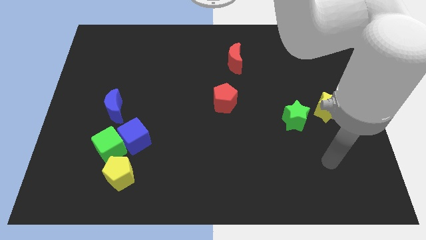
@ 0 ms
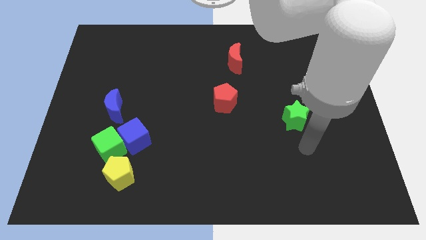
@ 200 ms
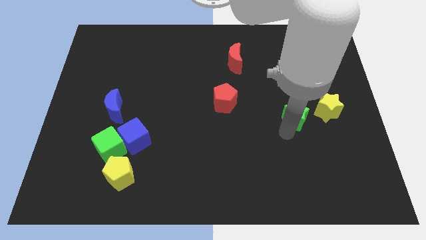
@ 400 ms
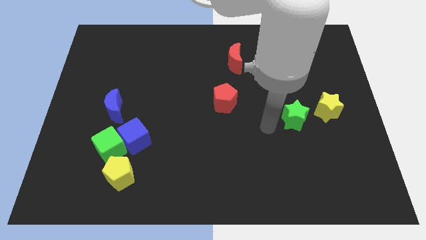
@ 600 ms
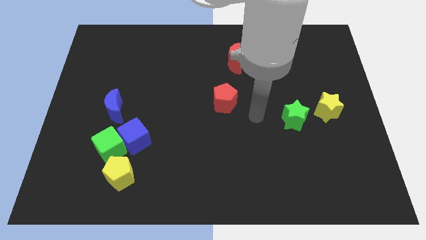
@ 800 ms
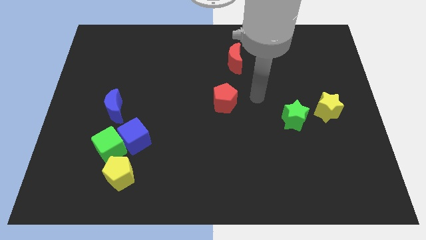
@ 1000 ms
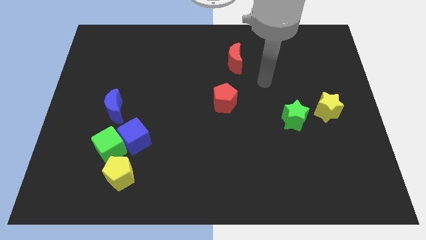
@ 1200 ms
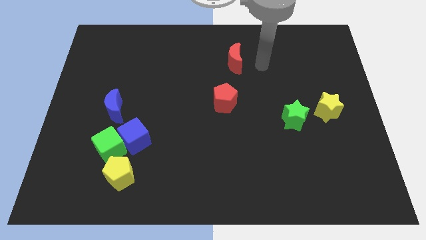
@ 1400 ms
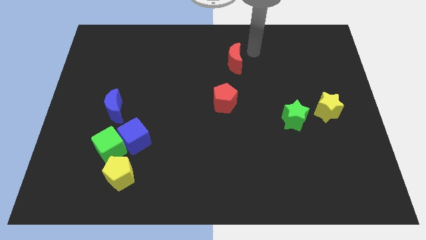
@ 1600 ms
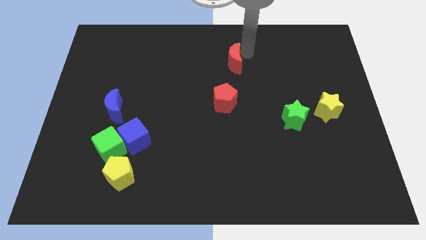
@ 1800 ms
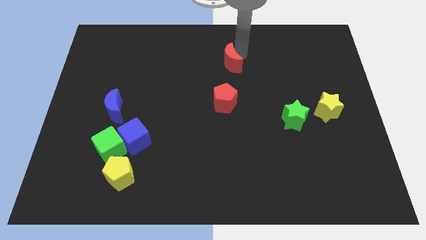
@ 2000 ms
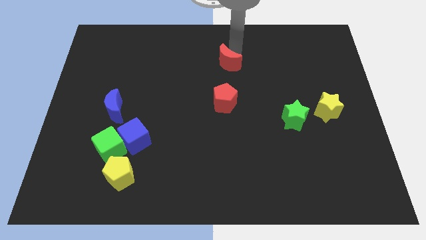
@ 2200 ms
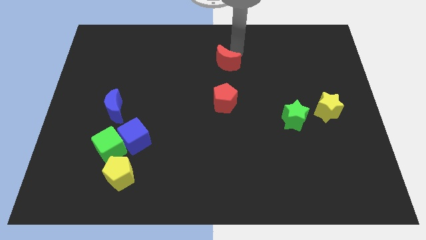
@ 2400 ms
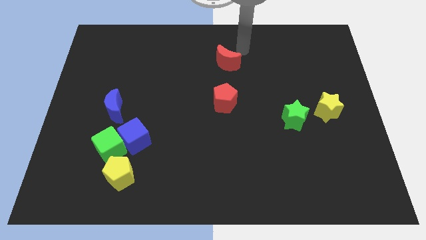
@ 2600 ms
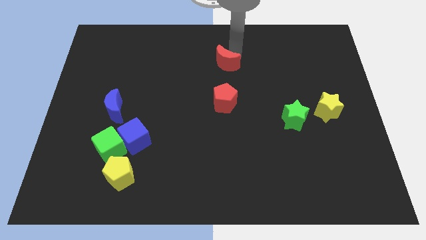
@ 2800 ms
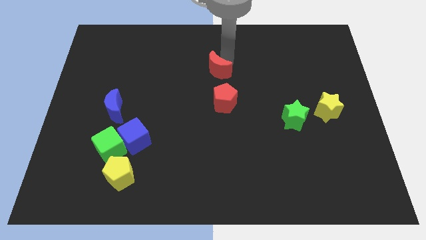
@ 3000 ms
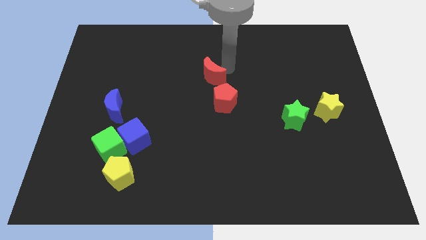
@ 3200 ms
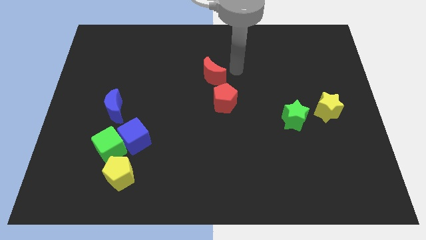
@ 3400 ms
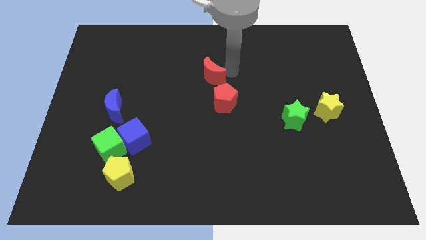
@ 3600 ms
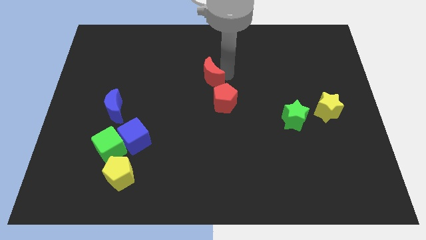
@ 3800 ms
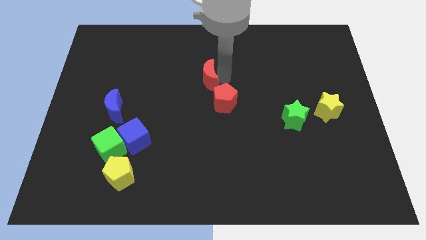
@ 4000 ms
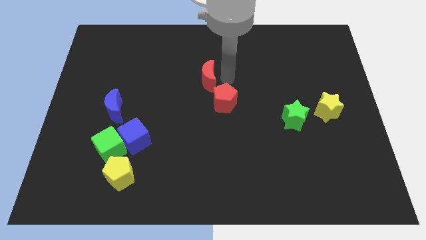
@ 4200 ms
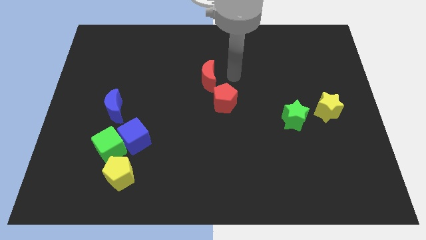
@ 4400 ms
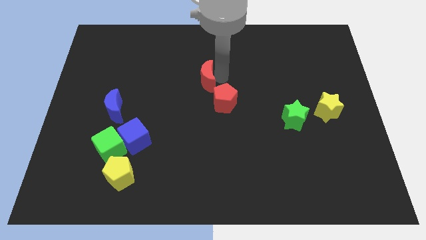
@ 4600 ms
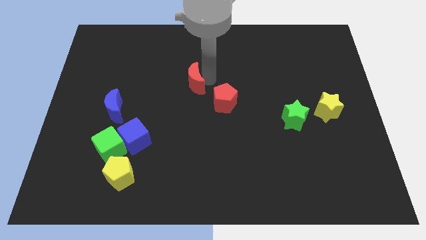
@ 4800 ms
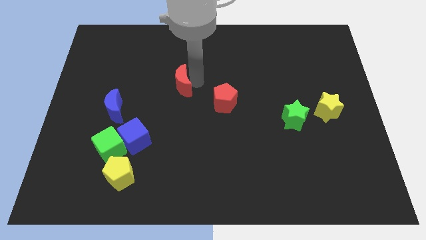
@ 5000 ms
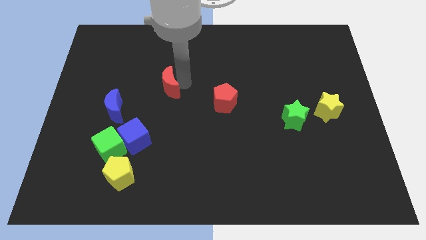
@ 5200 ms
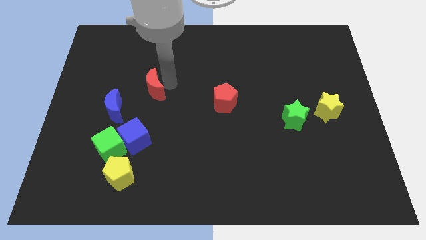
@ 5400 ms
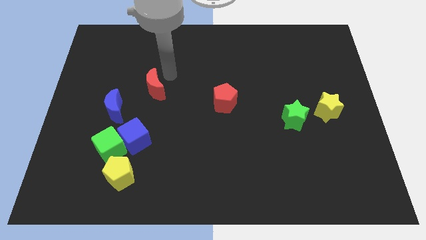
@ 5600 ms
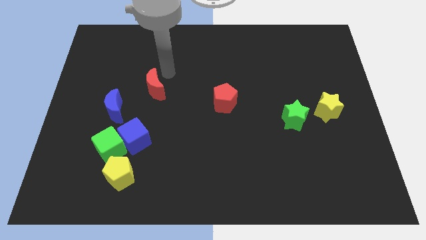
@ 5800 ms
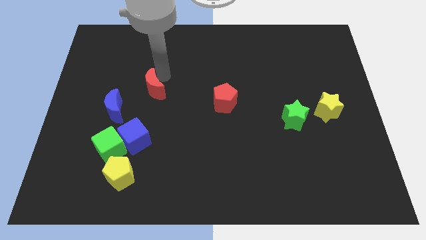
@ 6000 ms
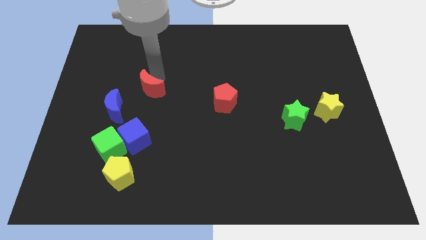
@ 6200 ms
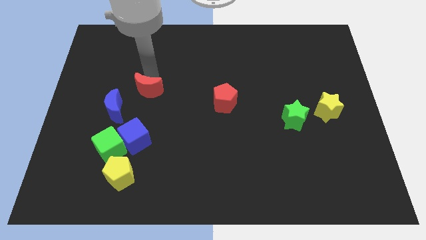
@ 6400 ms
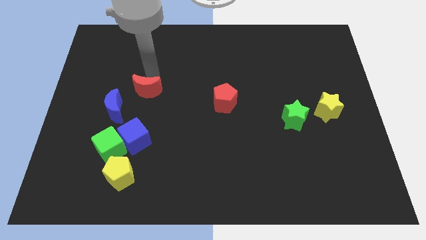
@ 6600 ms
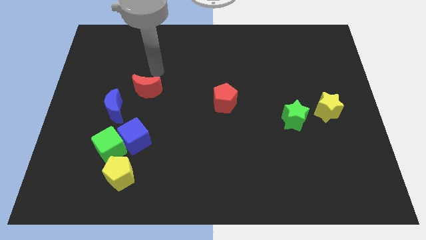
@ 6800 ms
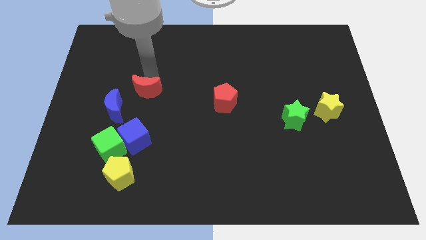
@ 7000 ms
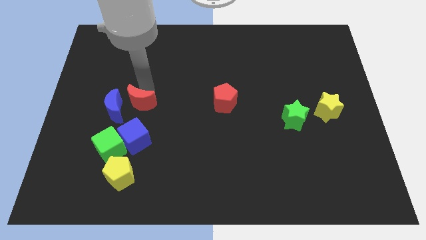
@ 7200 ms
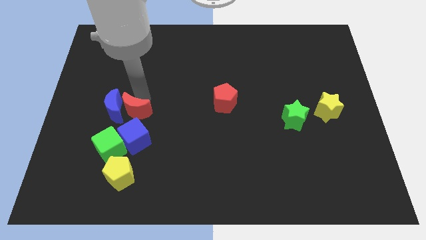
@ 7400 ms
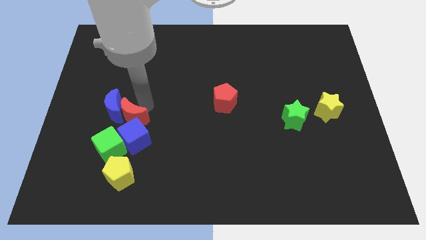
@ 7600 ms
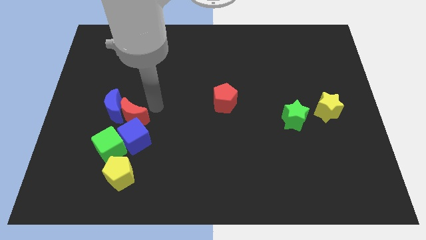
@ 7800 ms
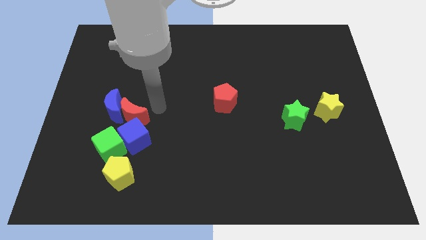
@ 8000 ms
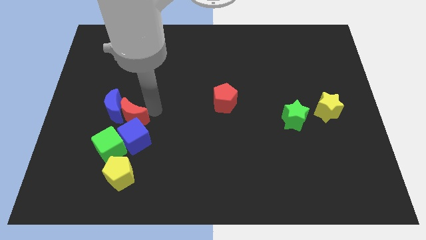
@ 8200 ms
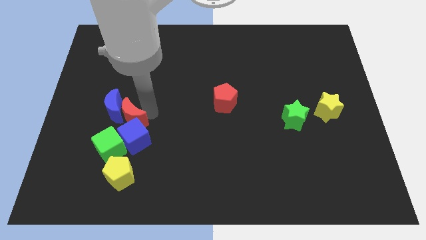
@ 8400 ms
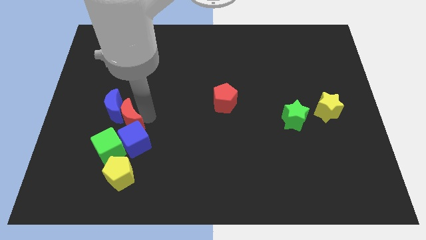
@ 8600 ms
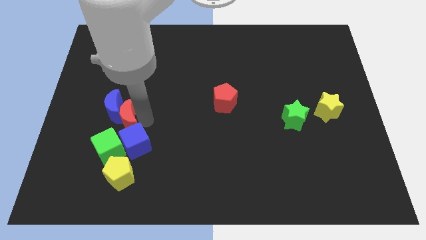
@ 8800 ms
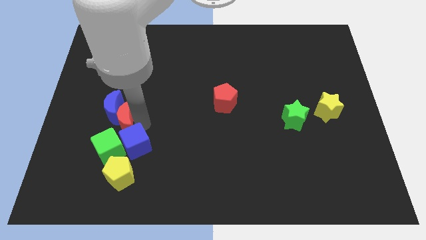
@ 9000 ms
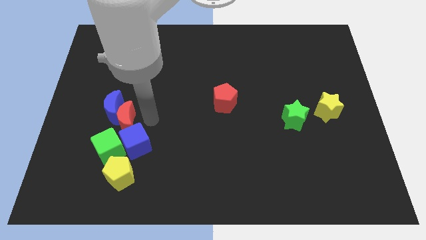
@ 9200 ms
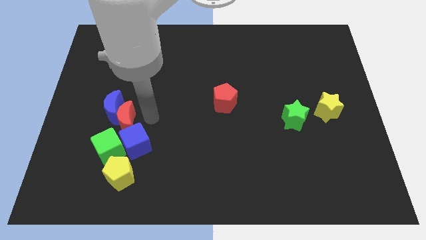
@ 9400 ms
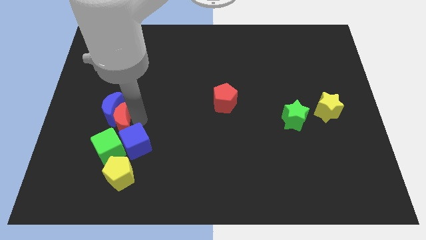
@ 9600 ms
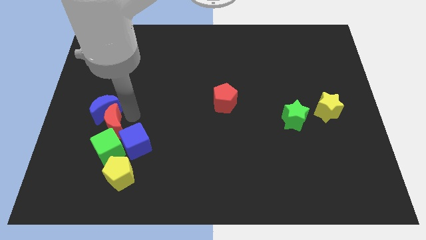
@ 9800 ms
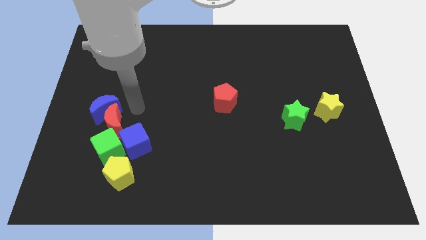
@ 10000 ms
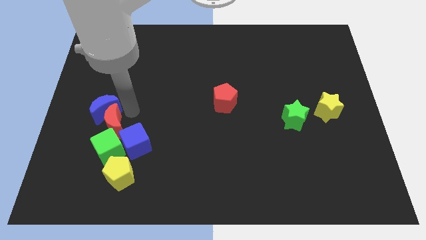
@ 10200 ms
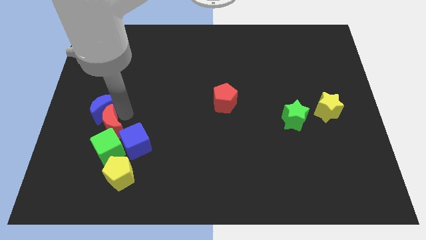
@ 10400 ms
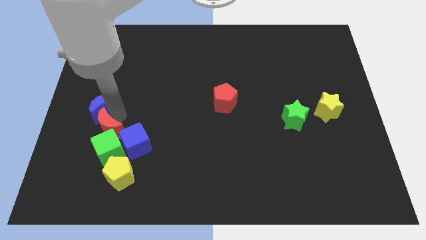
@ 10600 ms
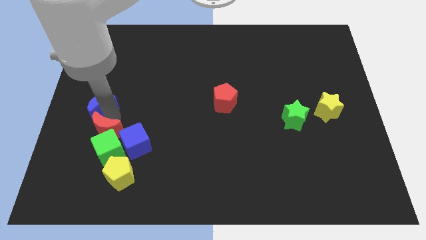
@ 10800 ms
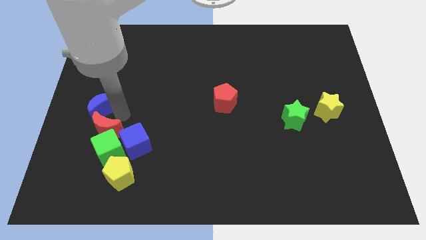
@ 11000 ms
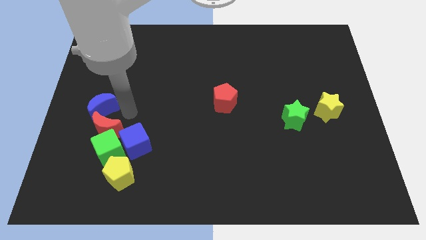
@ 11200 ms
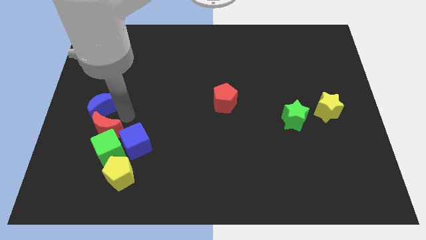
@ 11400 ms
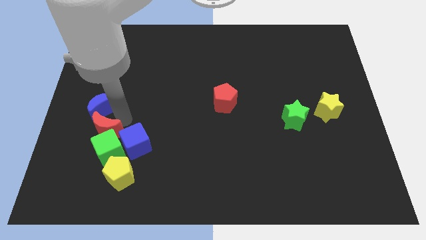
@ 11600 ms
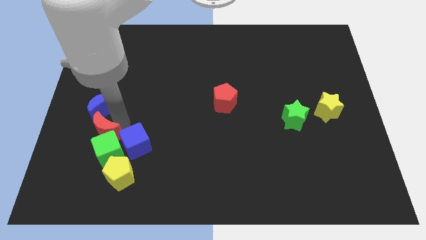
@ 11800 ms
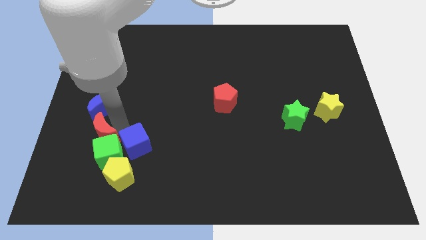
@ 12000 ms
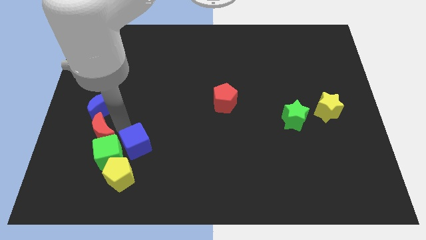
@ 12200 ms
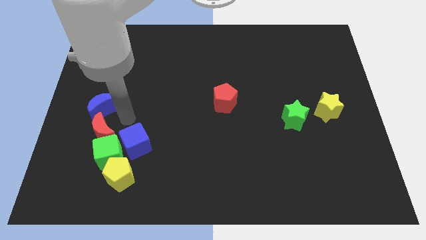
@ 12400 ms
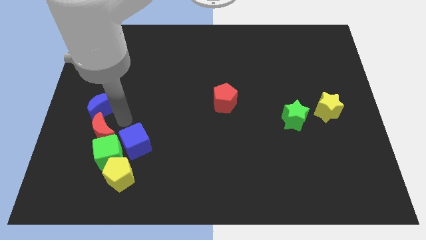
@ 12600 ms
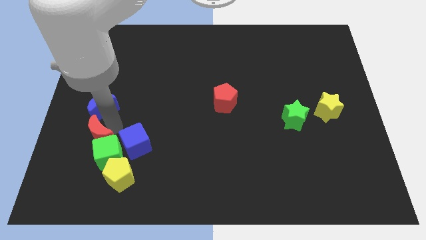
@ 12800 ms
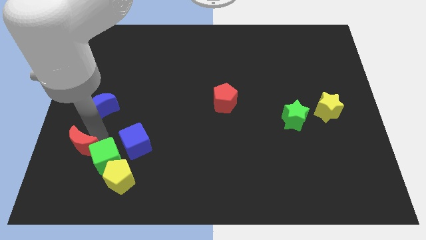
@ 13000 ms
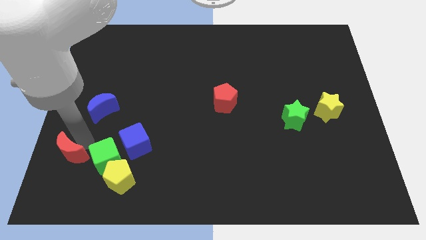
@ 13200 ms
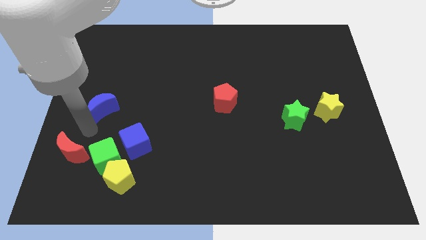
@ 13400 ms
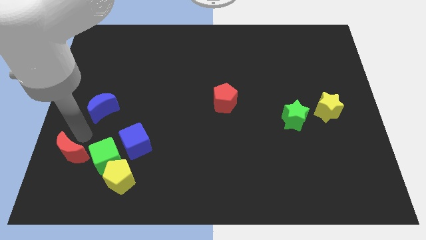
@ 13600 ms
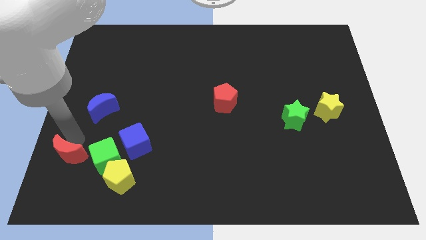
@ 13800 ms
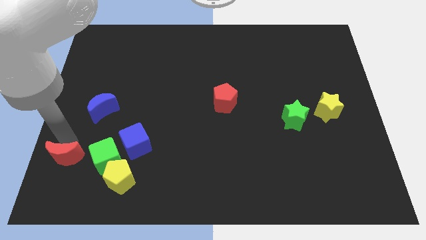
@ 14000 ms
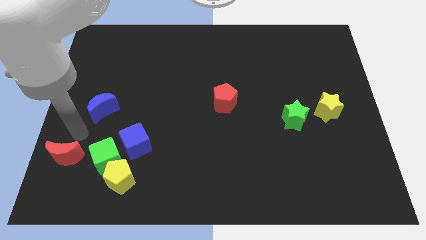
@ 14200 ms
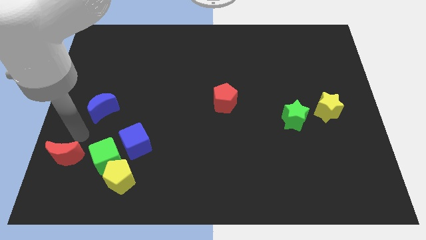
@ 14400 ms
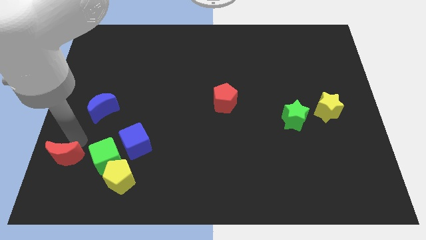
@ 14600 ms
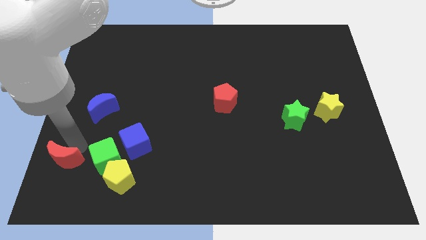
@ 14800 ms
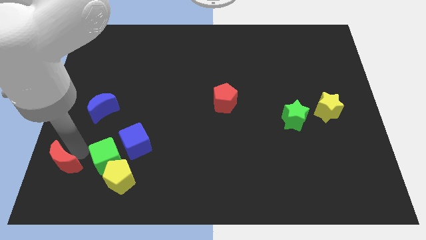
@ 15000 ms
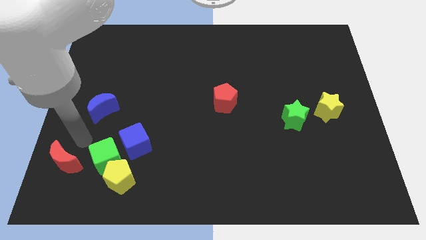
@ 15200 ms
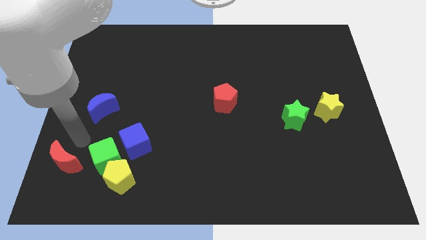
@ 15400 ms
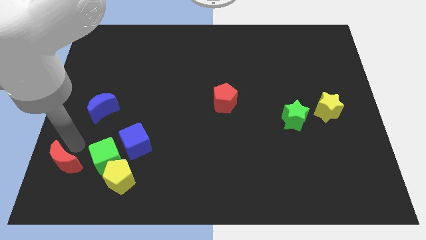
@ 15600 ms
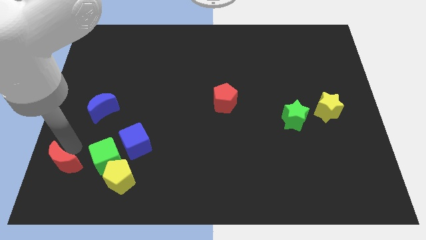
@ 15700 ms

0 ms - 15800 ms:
push the red moon to the bottom left
